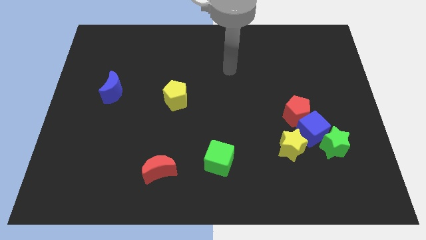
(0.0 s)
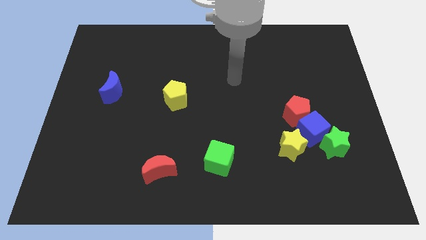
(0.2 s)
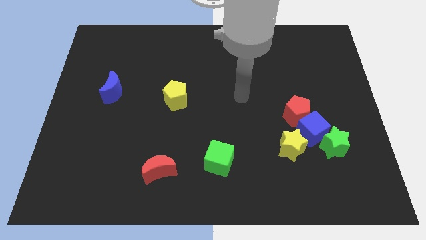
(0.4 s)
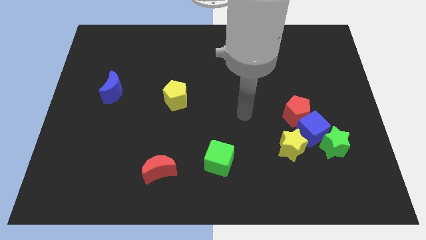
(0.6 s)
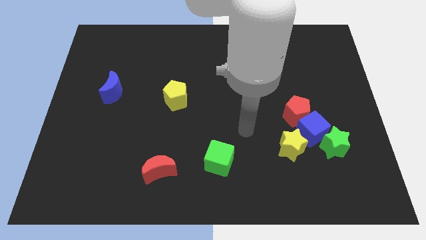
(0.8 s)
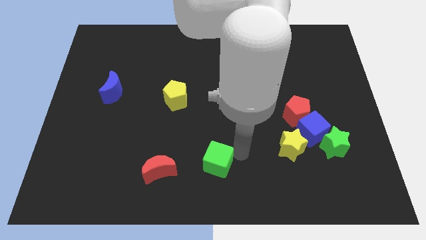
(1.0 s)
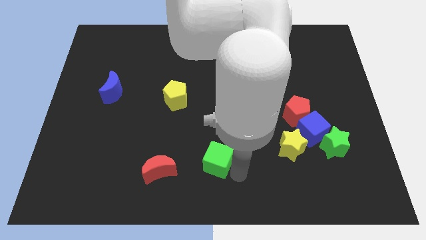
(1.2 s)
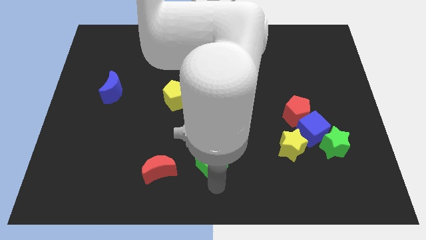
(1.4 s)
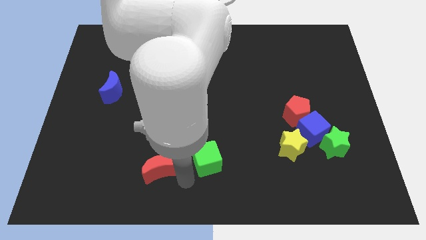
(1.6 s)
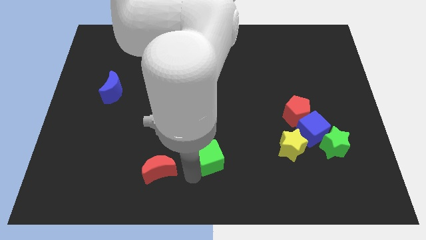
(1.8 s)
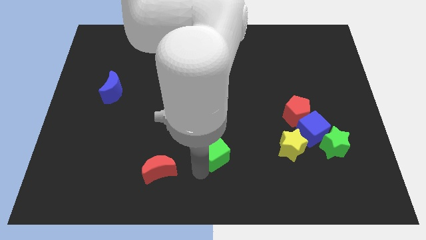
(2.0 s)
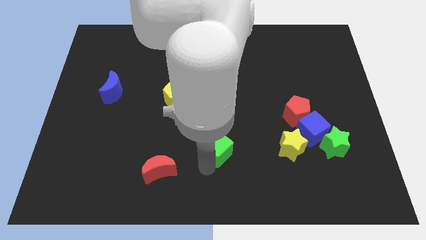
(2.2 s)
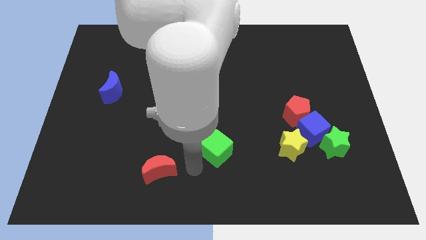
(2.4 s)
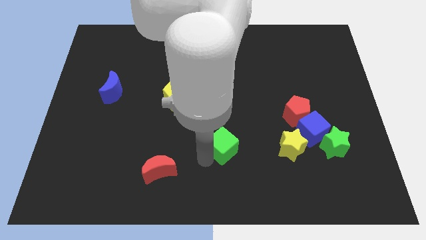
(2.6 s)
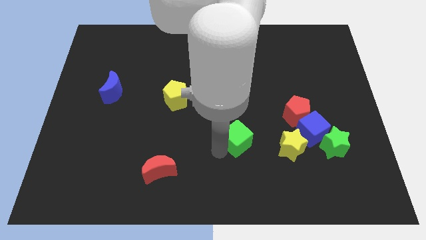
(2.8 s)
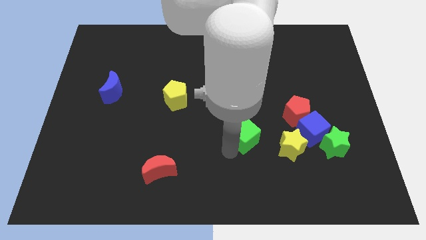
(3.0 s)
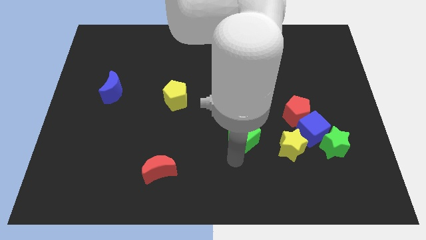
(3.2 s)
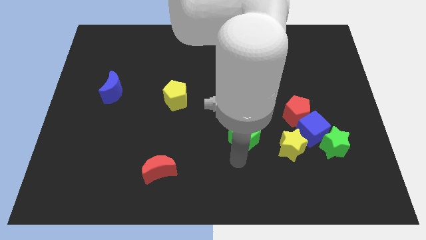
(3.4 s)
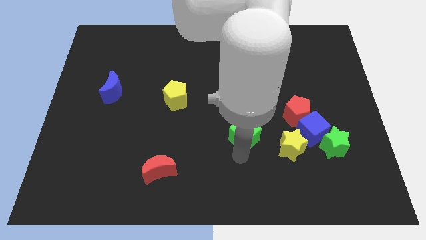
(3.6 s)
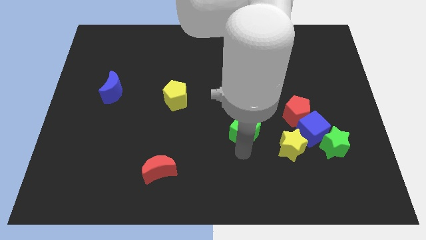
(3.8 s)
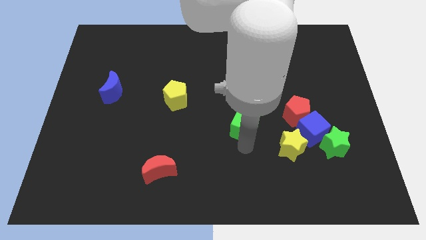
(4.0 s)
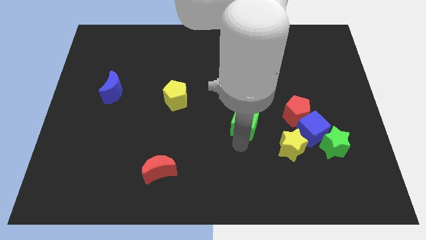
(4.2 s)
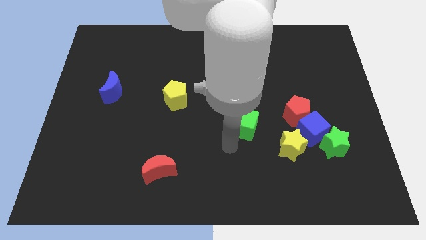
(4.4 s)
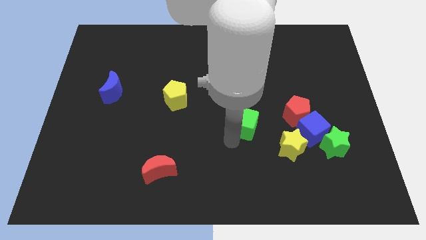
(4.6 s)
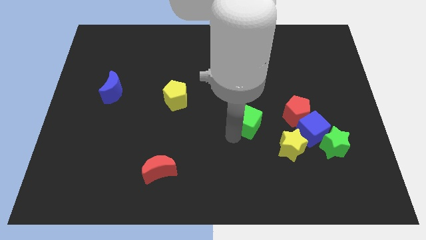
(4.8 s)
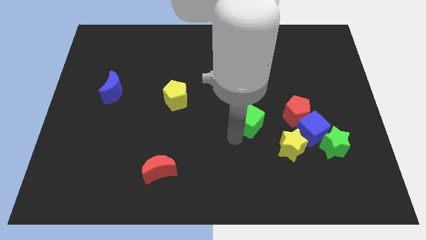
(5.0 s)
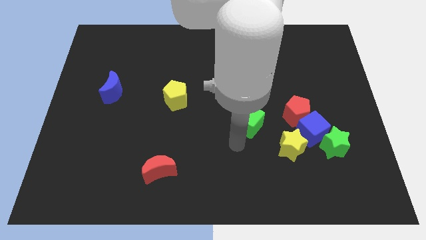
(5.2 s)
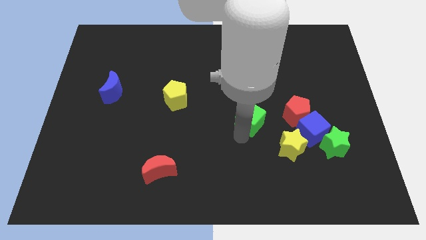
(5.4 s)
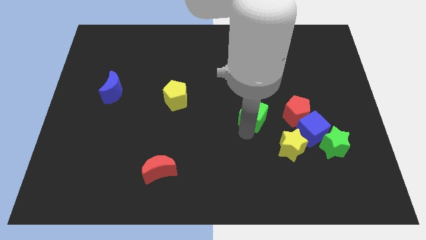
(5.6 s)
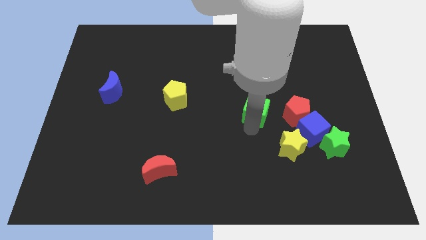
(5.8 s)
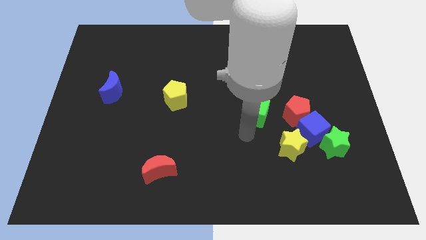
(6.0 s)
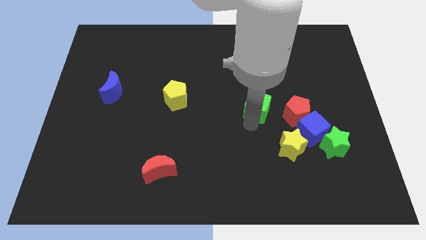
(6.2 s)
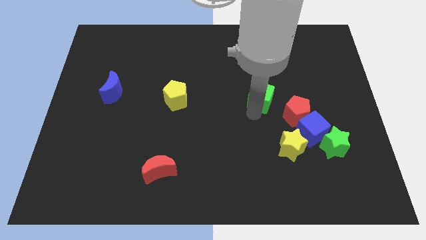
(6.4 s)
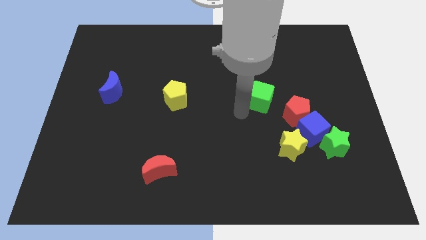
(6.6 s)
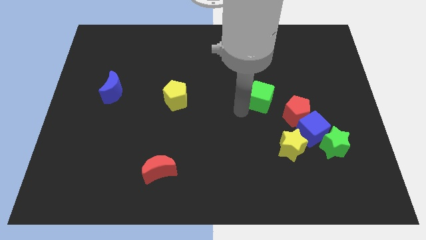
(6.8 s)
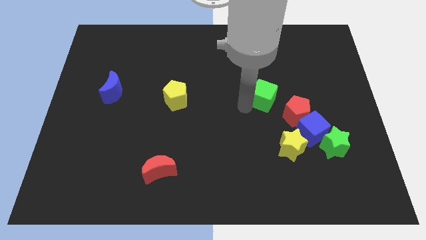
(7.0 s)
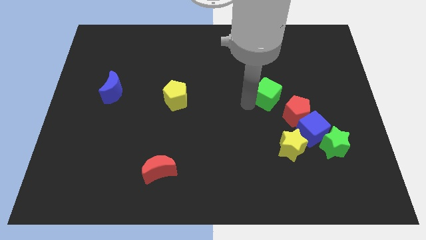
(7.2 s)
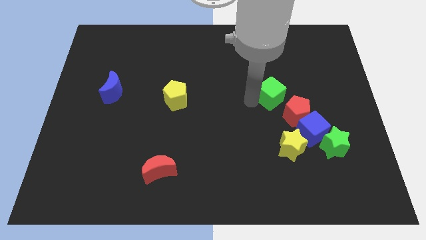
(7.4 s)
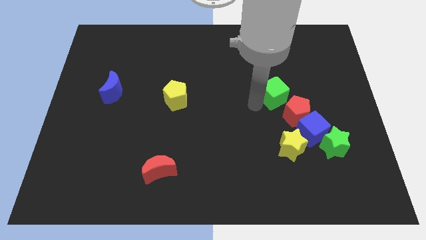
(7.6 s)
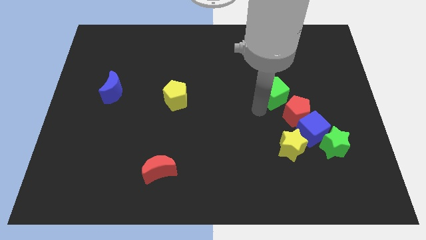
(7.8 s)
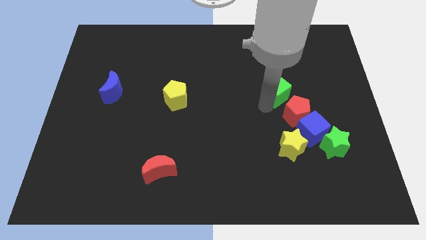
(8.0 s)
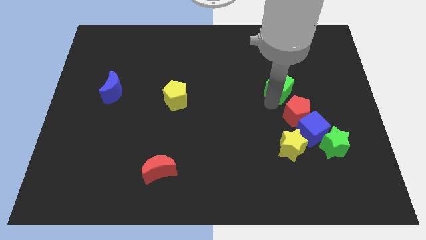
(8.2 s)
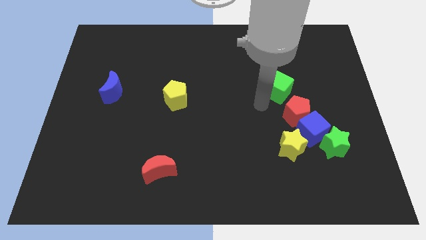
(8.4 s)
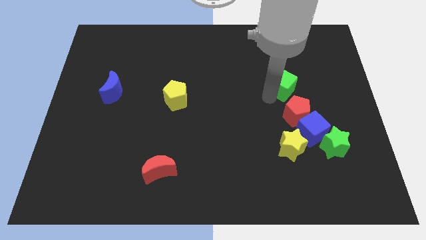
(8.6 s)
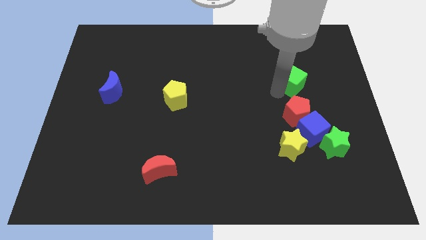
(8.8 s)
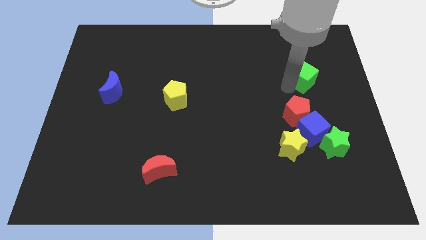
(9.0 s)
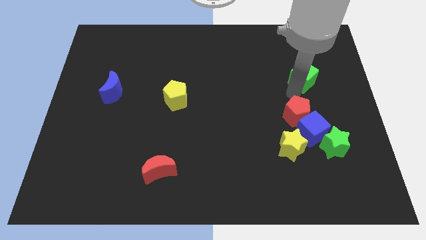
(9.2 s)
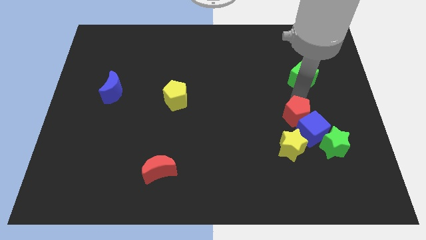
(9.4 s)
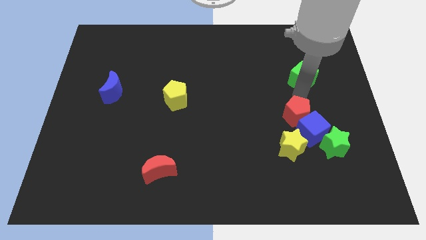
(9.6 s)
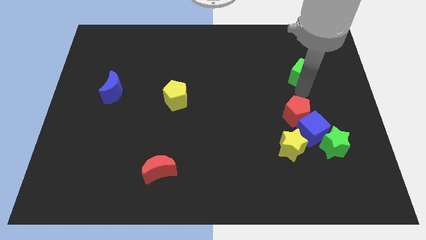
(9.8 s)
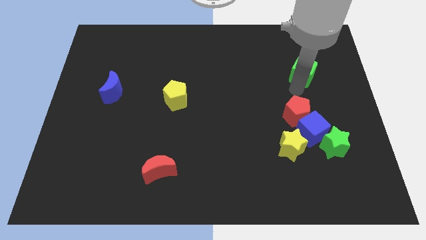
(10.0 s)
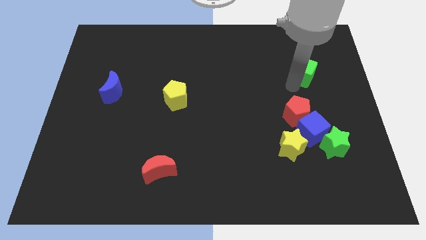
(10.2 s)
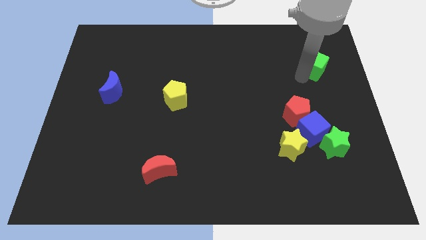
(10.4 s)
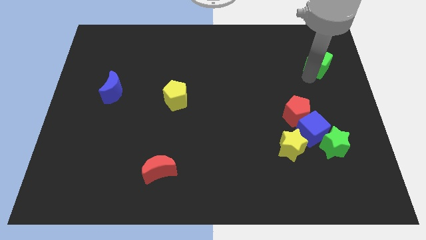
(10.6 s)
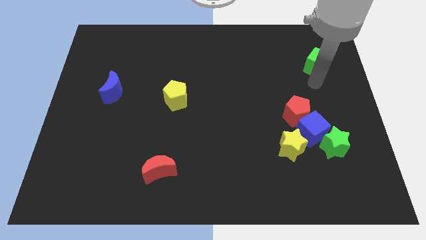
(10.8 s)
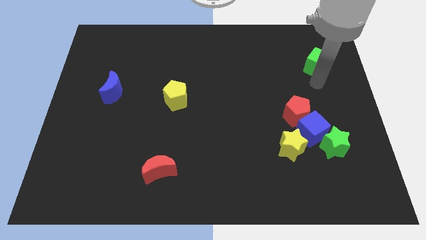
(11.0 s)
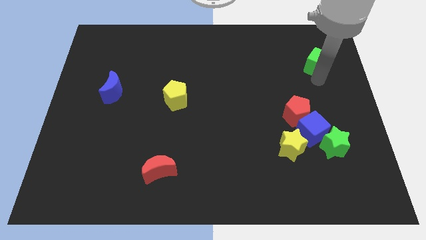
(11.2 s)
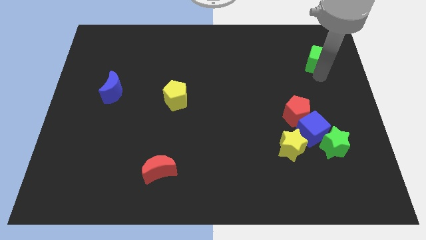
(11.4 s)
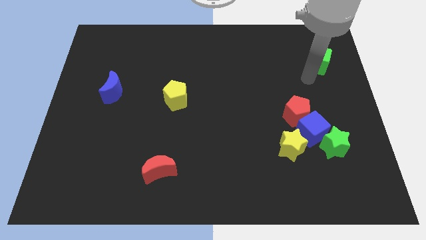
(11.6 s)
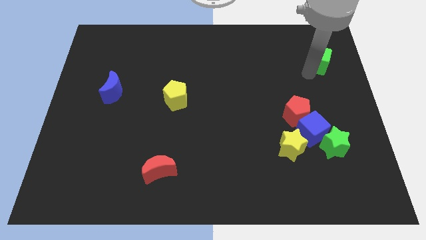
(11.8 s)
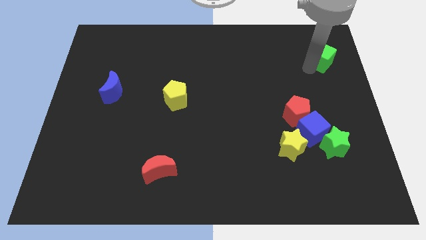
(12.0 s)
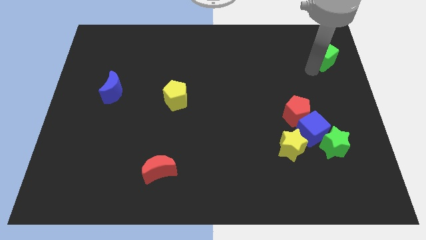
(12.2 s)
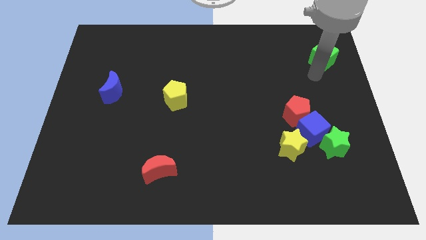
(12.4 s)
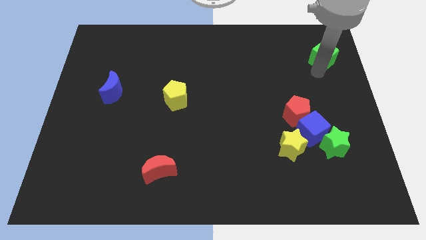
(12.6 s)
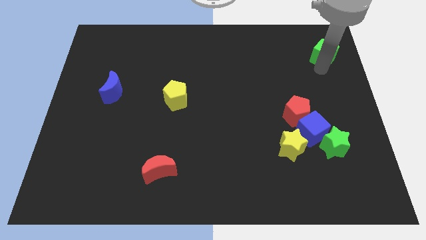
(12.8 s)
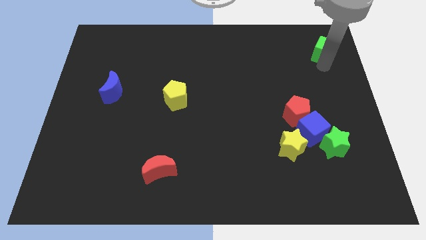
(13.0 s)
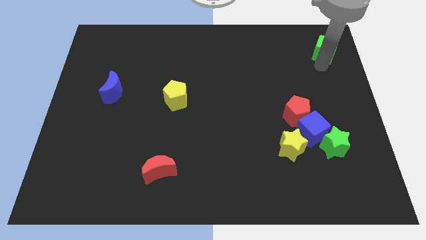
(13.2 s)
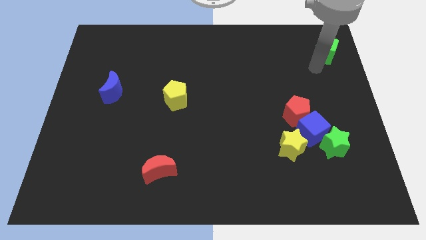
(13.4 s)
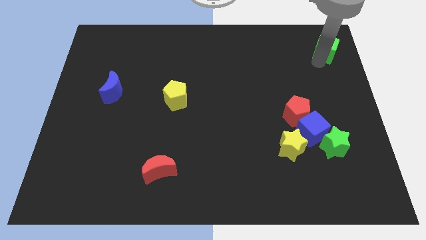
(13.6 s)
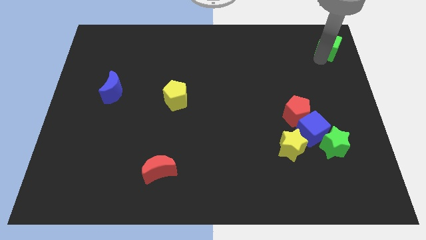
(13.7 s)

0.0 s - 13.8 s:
slide the green cube to the top right corner
